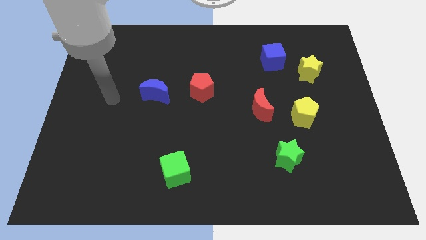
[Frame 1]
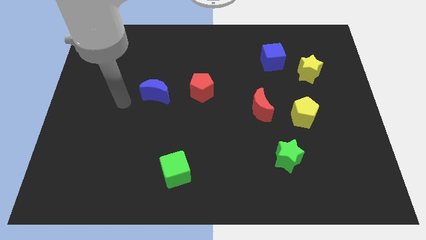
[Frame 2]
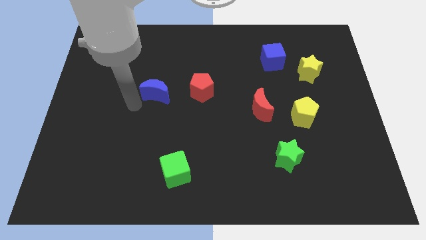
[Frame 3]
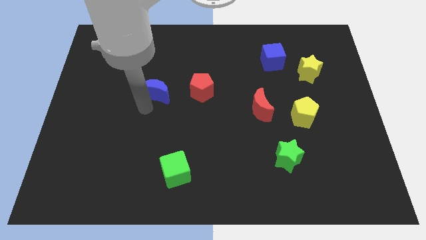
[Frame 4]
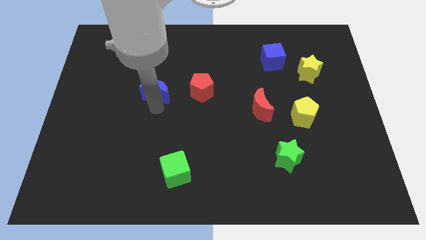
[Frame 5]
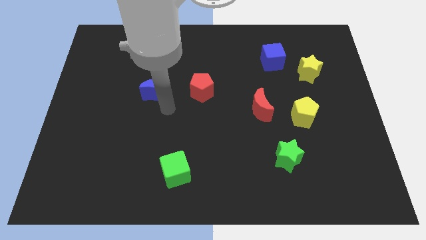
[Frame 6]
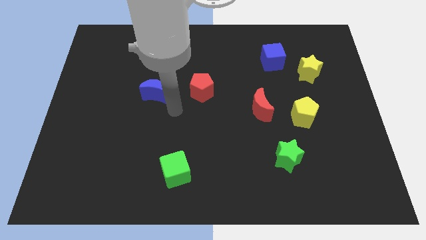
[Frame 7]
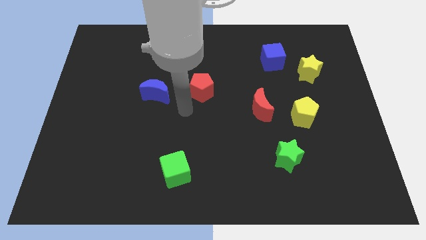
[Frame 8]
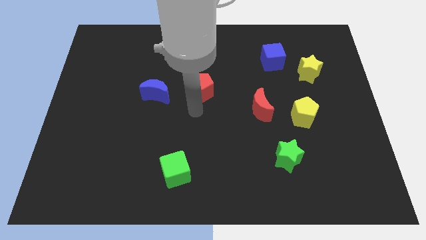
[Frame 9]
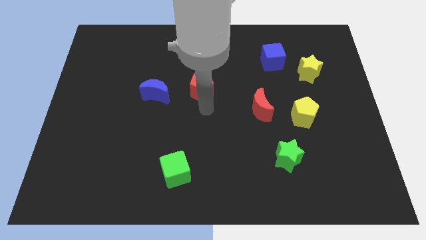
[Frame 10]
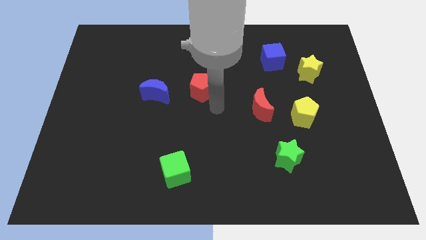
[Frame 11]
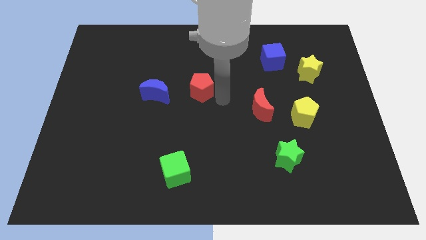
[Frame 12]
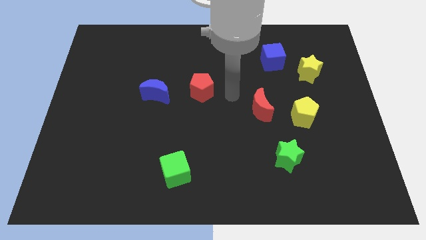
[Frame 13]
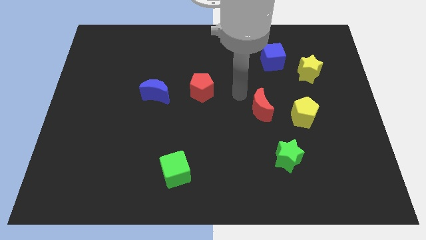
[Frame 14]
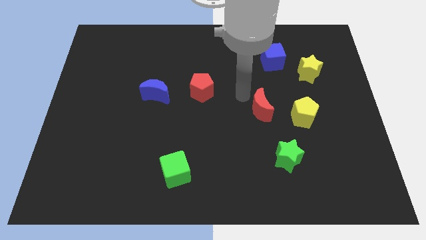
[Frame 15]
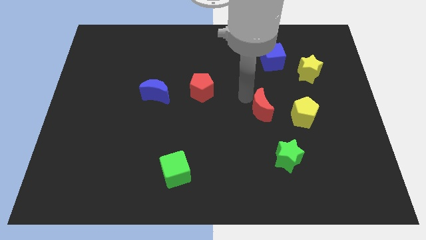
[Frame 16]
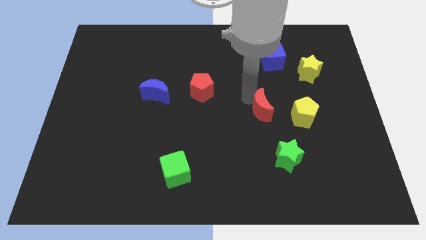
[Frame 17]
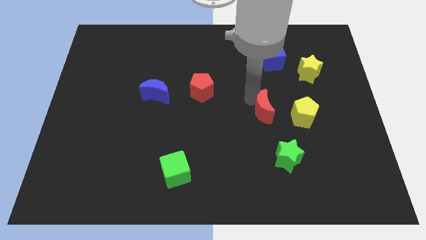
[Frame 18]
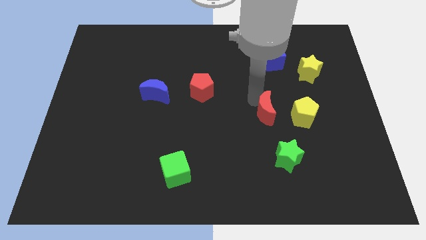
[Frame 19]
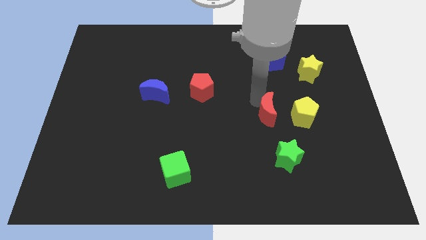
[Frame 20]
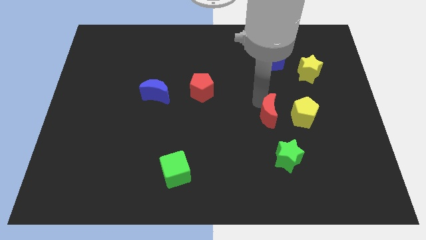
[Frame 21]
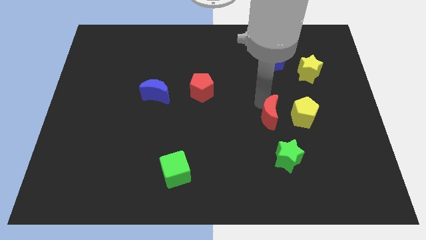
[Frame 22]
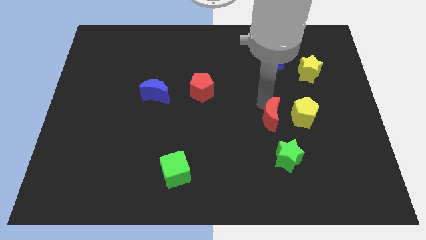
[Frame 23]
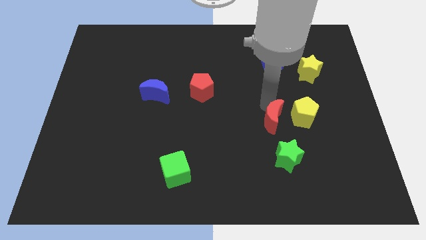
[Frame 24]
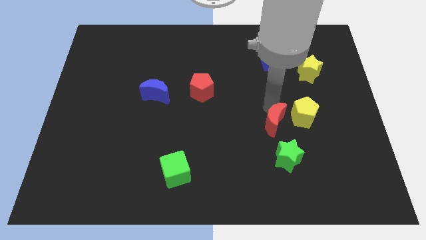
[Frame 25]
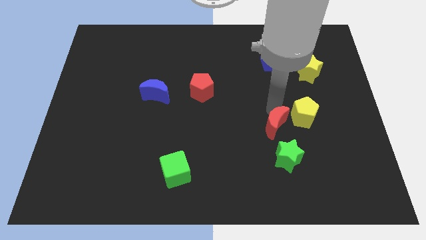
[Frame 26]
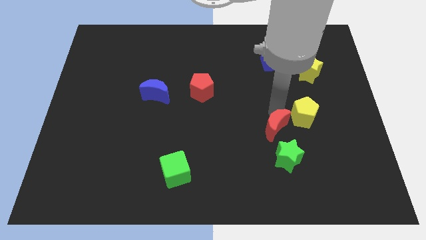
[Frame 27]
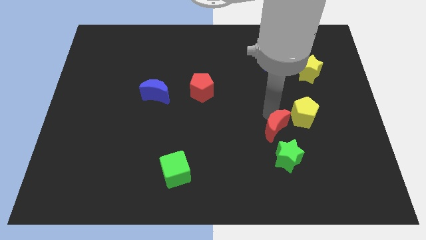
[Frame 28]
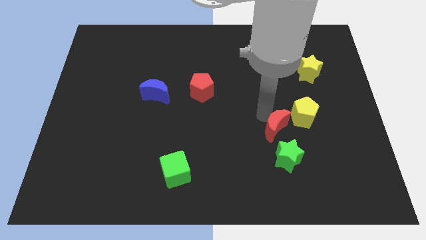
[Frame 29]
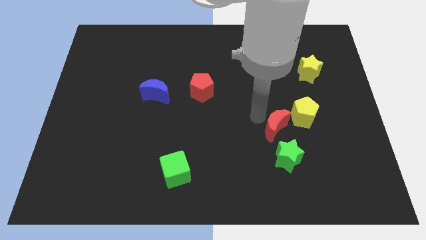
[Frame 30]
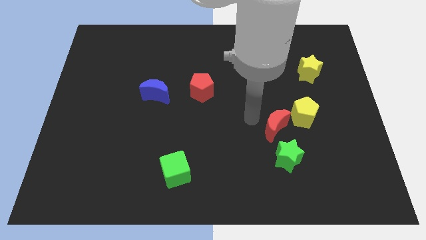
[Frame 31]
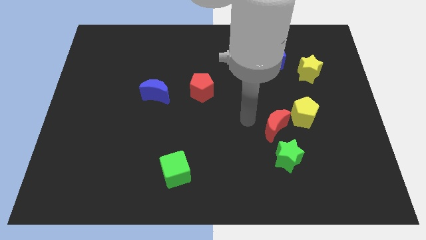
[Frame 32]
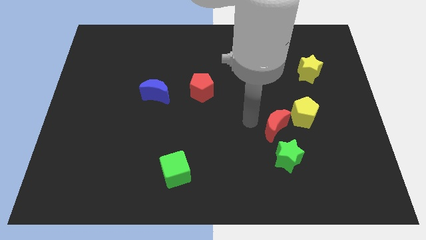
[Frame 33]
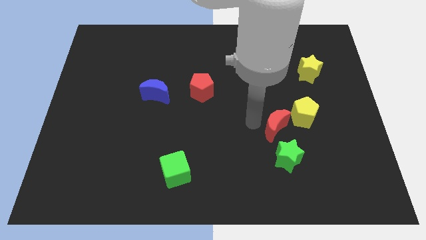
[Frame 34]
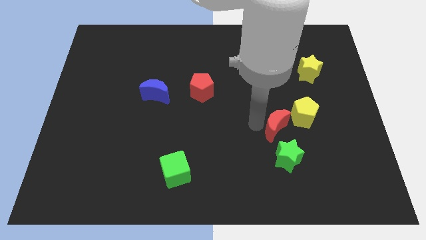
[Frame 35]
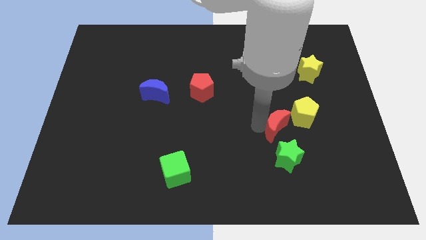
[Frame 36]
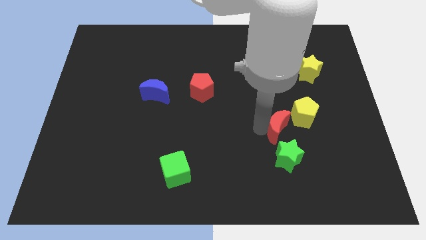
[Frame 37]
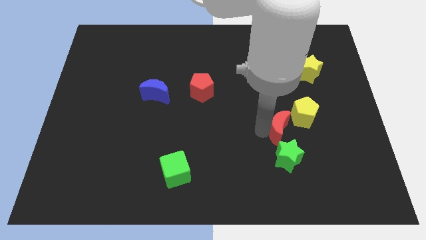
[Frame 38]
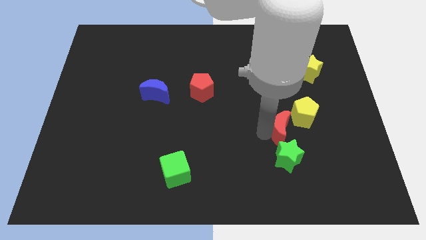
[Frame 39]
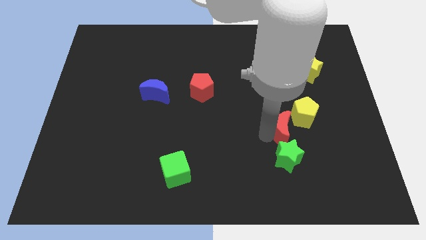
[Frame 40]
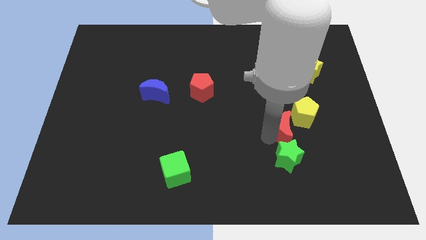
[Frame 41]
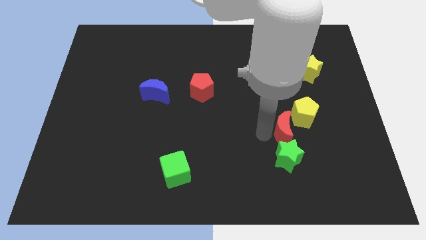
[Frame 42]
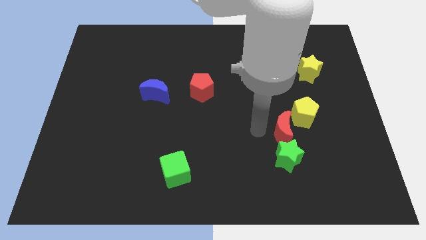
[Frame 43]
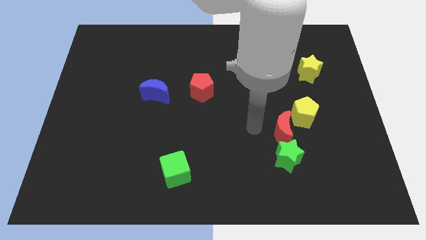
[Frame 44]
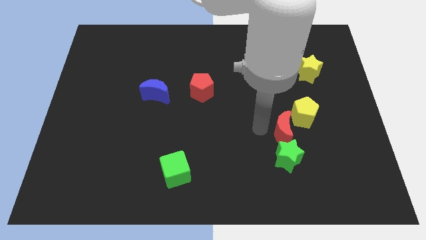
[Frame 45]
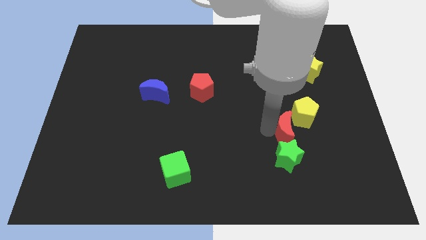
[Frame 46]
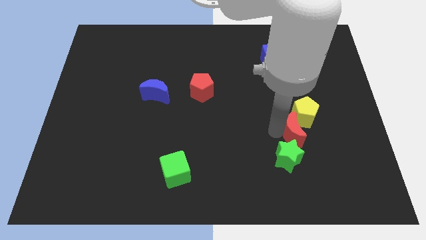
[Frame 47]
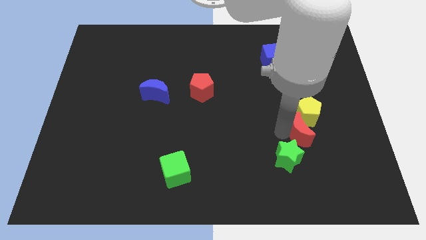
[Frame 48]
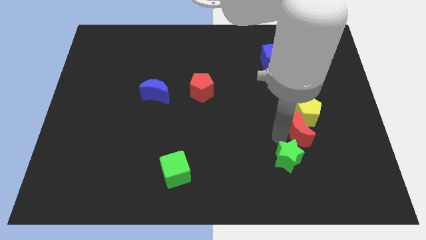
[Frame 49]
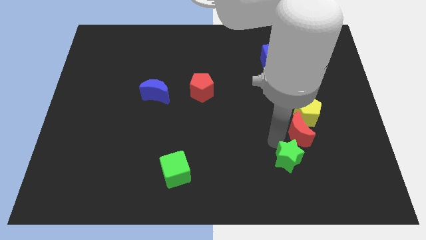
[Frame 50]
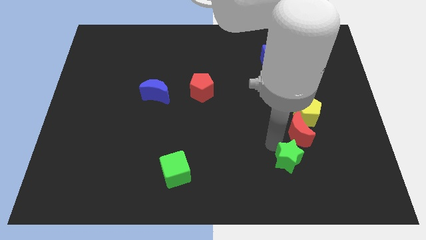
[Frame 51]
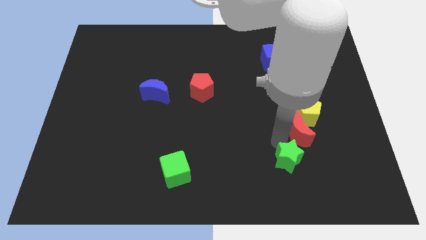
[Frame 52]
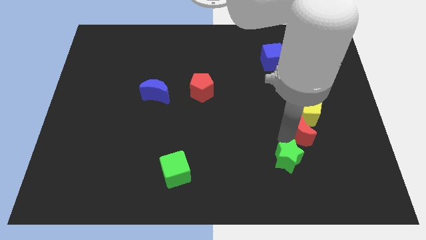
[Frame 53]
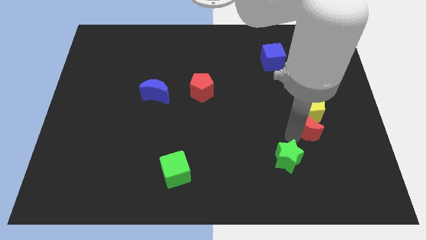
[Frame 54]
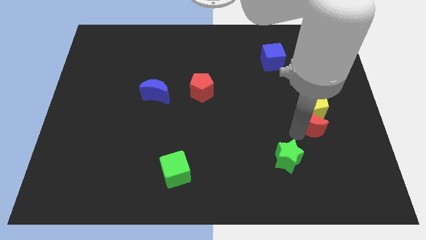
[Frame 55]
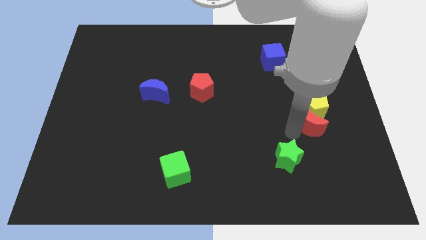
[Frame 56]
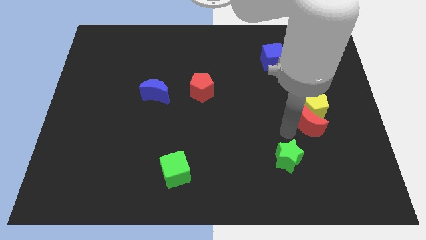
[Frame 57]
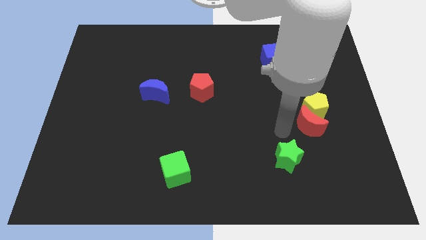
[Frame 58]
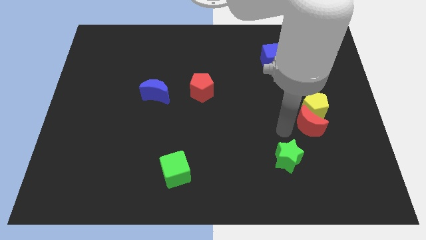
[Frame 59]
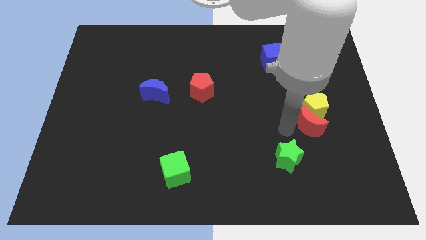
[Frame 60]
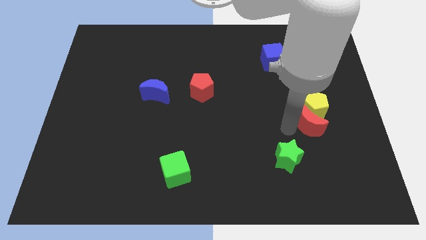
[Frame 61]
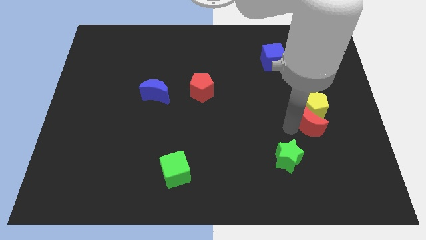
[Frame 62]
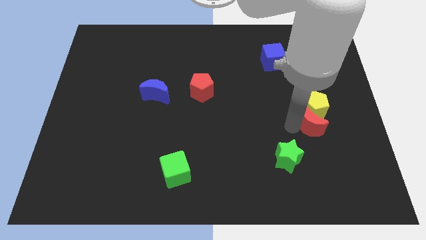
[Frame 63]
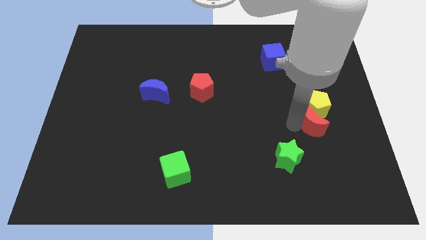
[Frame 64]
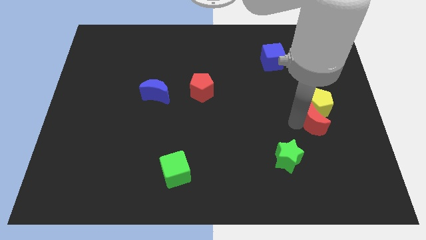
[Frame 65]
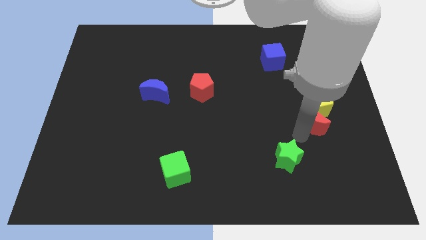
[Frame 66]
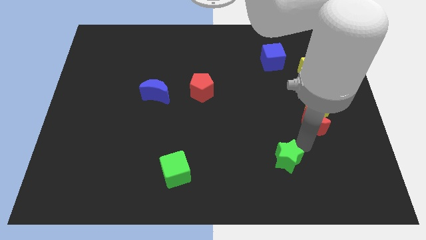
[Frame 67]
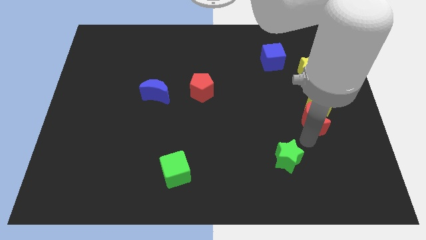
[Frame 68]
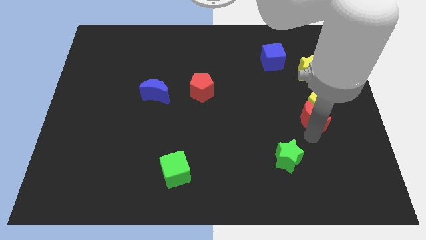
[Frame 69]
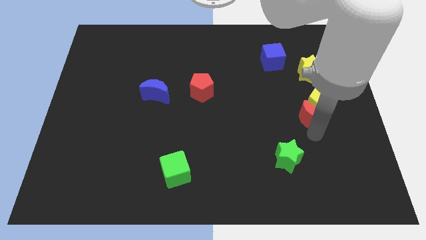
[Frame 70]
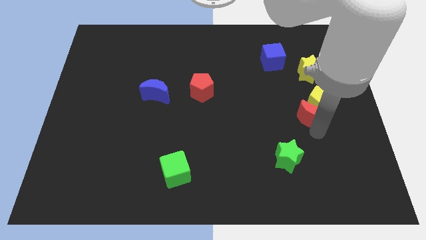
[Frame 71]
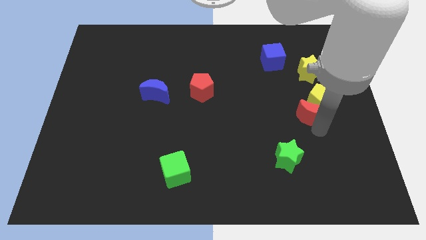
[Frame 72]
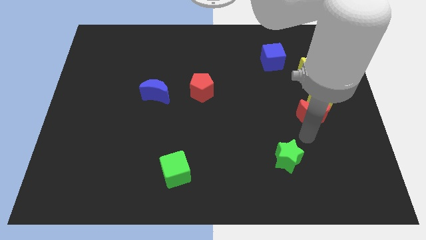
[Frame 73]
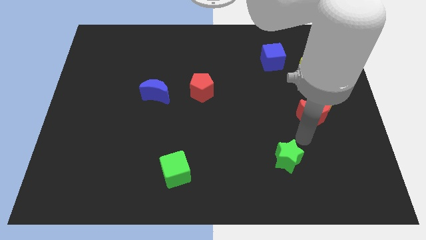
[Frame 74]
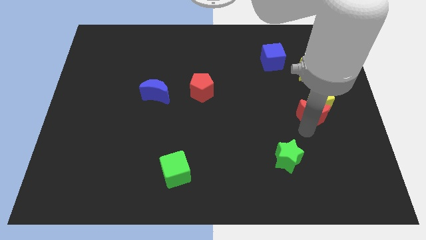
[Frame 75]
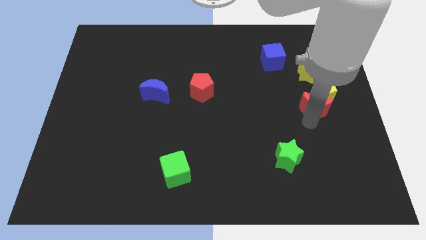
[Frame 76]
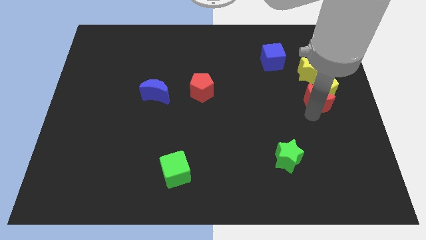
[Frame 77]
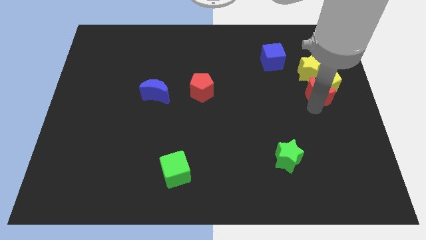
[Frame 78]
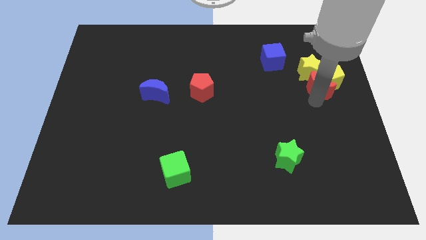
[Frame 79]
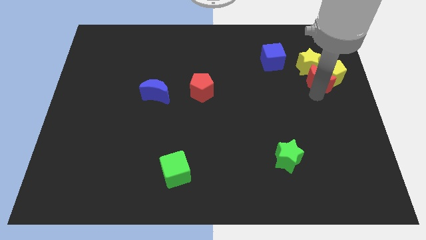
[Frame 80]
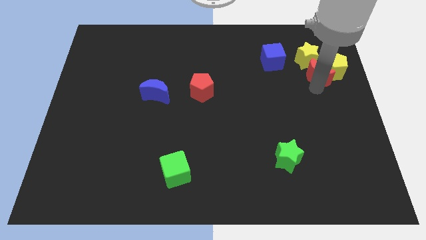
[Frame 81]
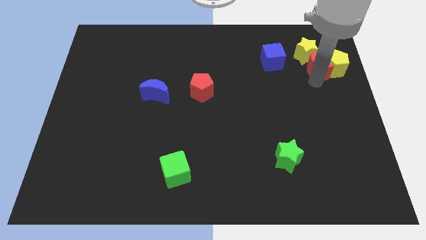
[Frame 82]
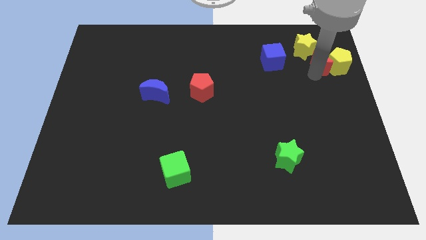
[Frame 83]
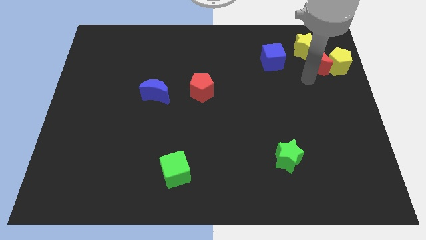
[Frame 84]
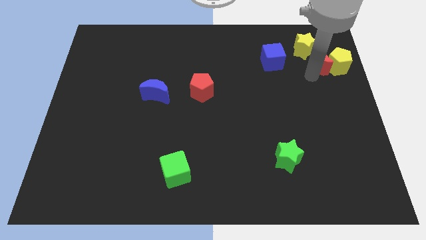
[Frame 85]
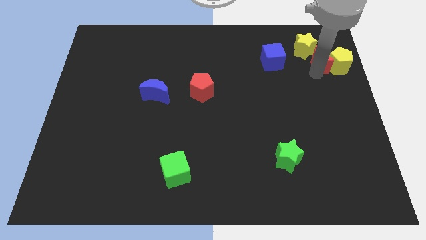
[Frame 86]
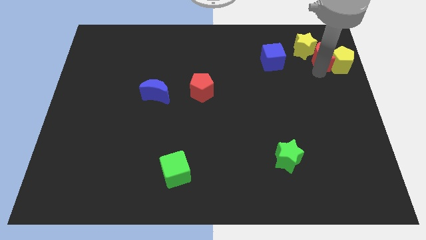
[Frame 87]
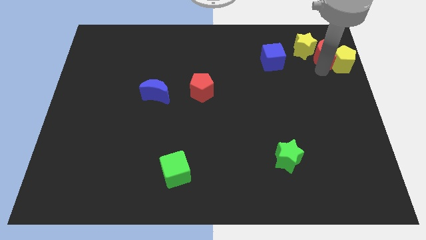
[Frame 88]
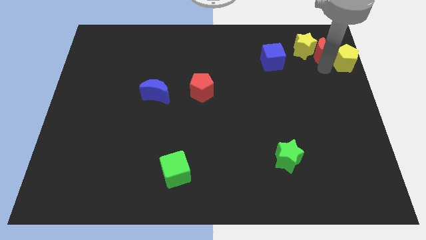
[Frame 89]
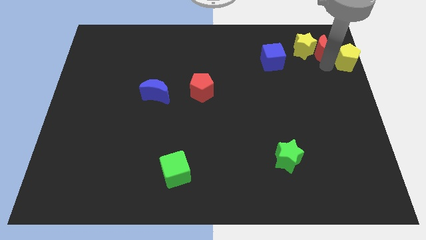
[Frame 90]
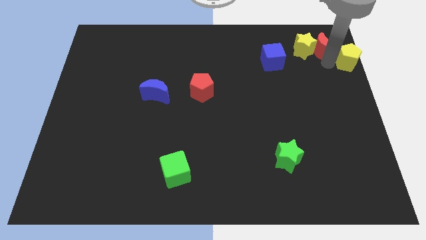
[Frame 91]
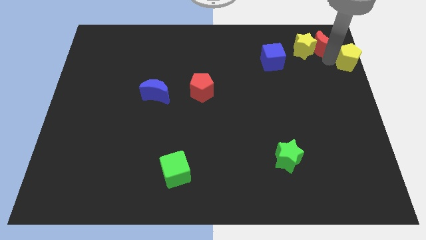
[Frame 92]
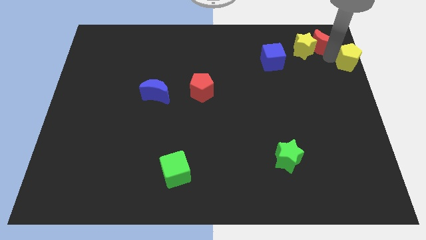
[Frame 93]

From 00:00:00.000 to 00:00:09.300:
move the red moon to the upper right corner
